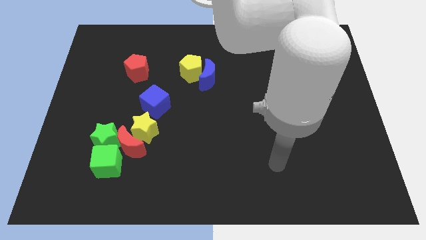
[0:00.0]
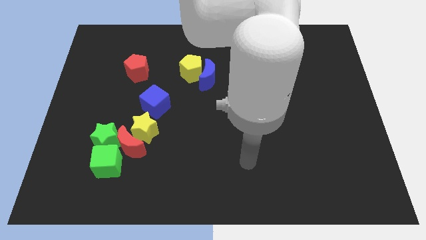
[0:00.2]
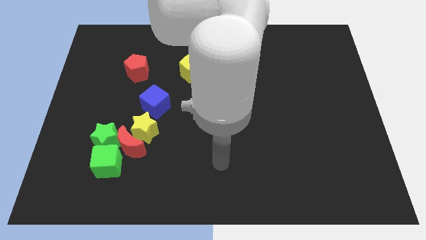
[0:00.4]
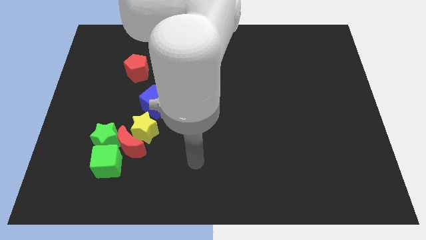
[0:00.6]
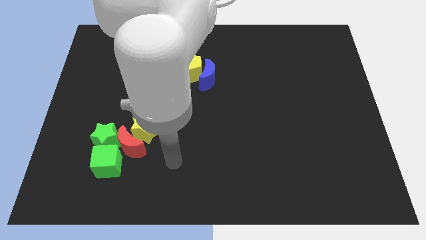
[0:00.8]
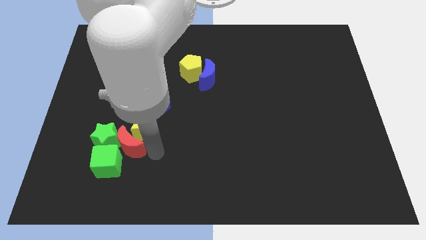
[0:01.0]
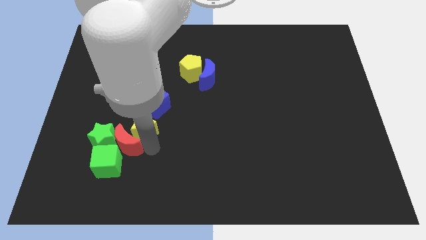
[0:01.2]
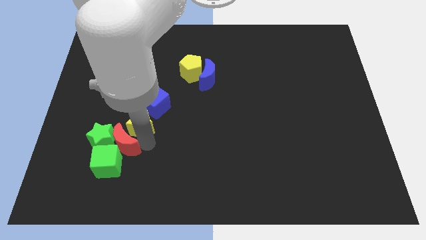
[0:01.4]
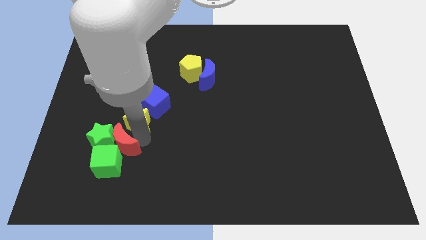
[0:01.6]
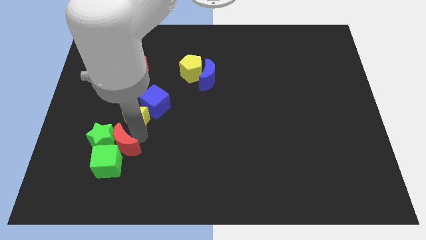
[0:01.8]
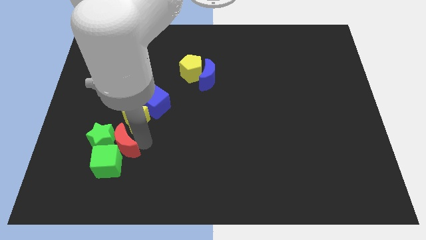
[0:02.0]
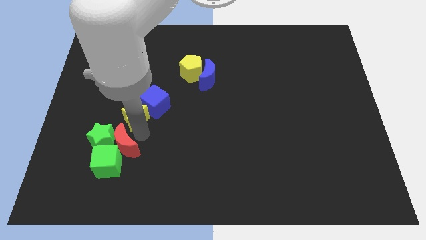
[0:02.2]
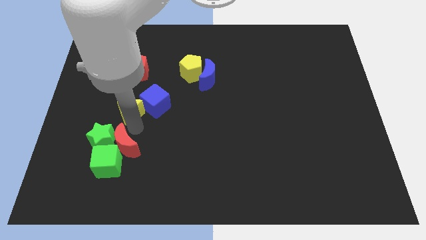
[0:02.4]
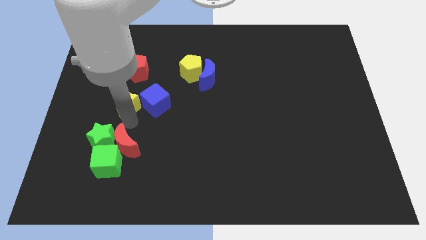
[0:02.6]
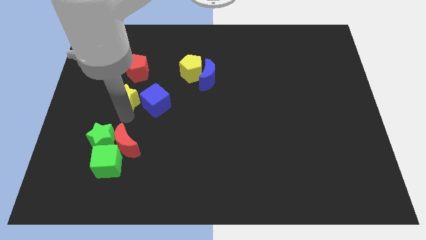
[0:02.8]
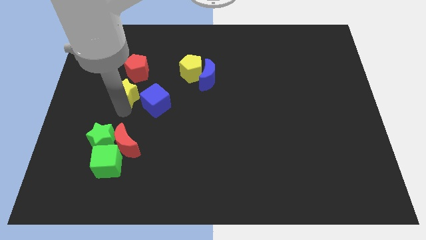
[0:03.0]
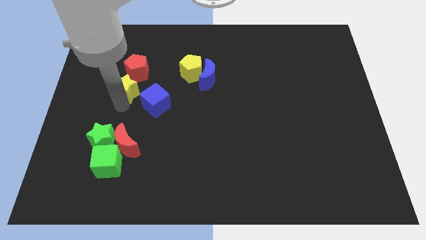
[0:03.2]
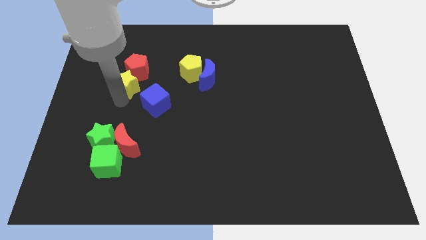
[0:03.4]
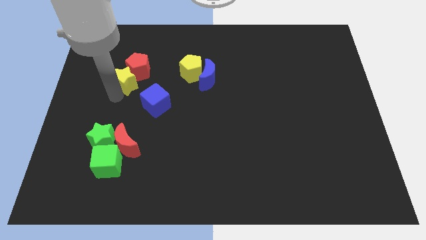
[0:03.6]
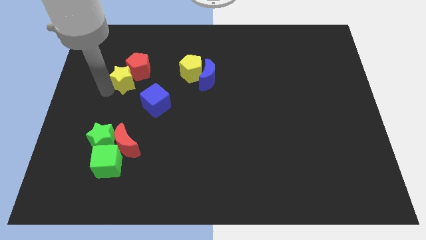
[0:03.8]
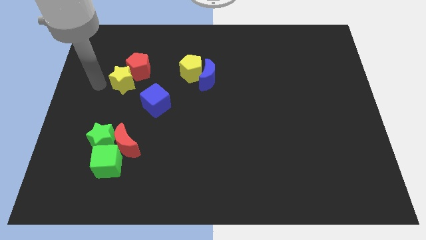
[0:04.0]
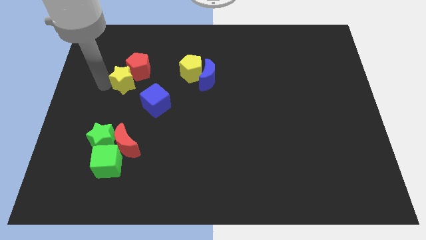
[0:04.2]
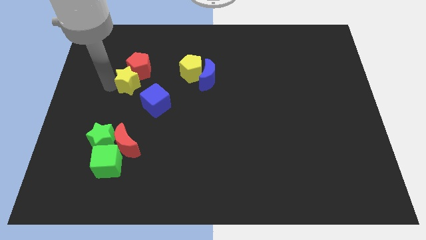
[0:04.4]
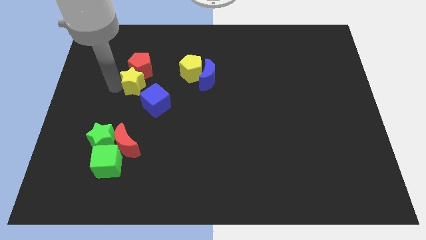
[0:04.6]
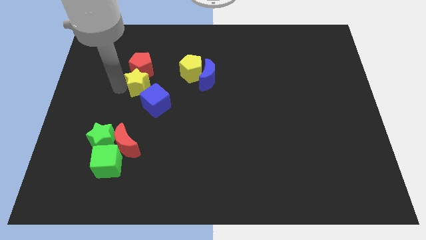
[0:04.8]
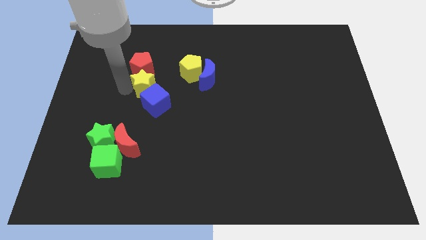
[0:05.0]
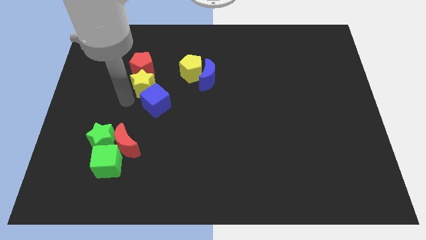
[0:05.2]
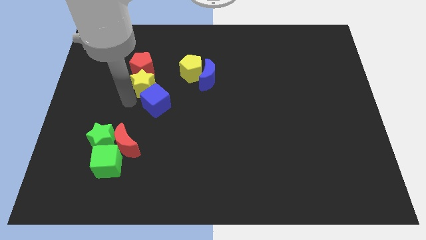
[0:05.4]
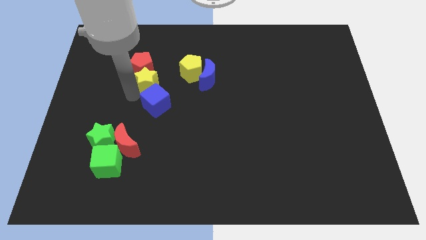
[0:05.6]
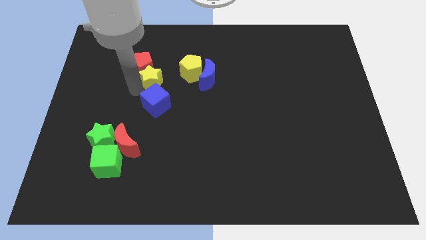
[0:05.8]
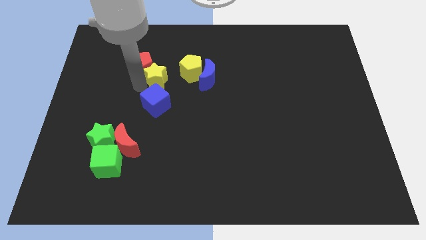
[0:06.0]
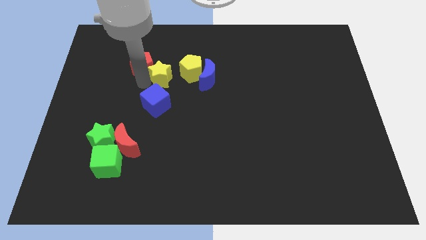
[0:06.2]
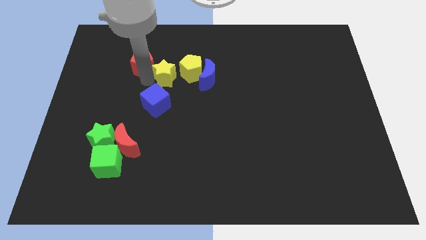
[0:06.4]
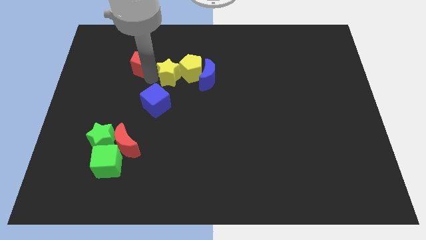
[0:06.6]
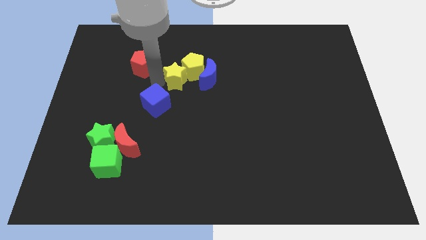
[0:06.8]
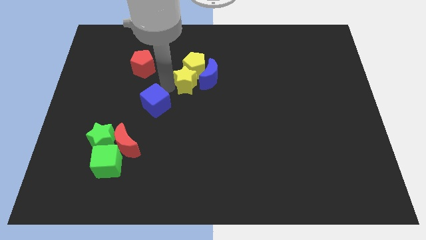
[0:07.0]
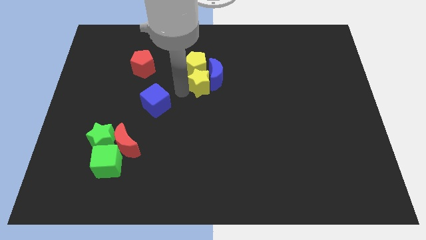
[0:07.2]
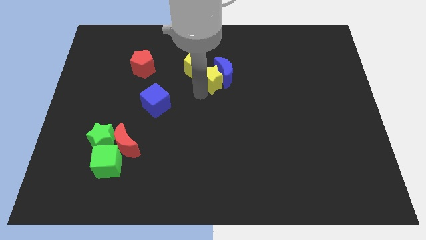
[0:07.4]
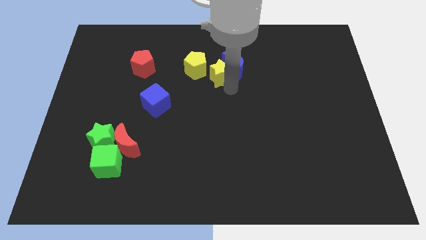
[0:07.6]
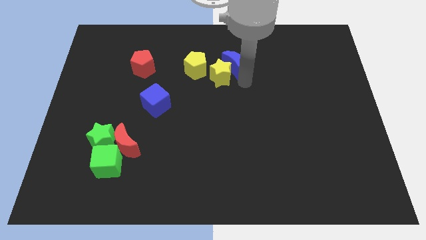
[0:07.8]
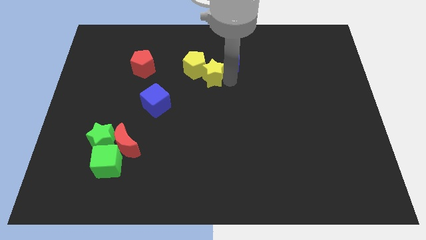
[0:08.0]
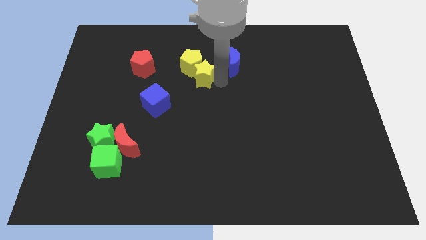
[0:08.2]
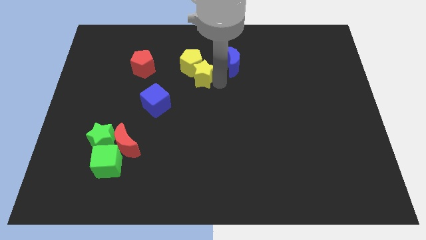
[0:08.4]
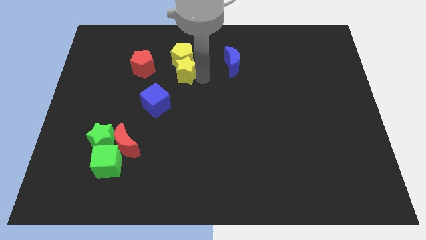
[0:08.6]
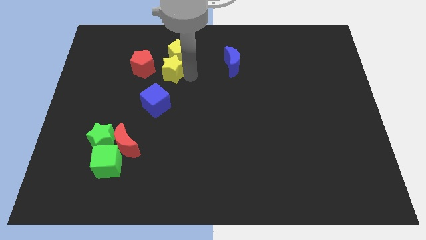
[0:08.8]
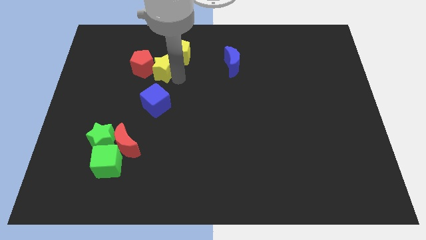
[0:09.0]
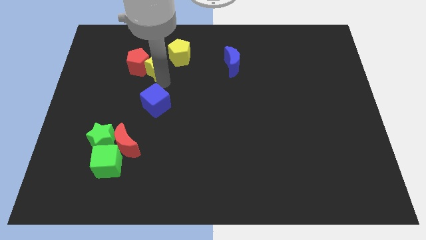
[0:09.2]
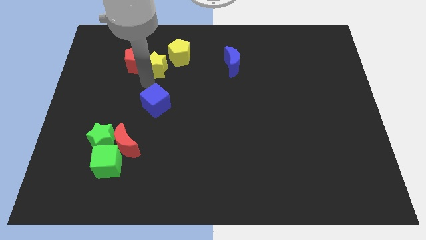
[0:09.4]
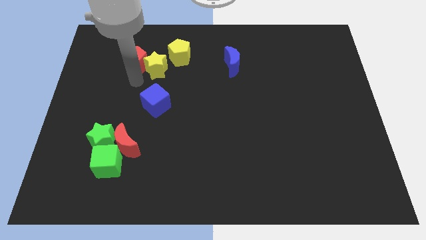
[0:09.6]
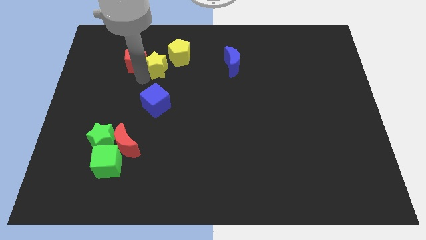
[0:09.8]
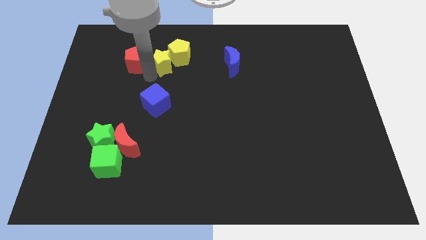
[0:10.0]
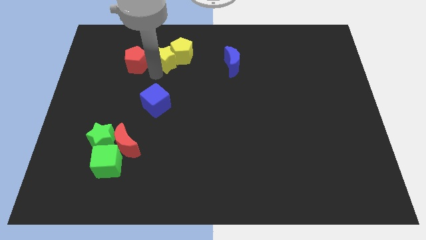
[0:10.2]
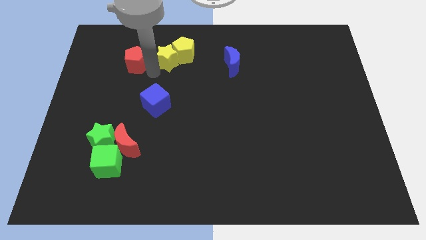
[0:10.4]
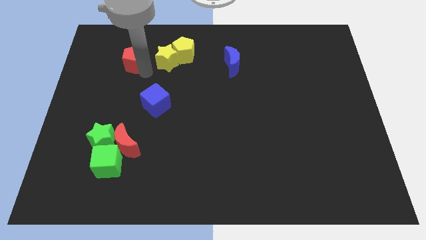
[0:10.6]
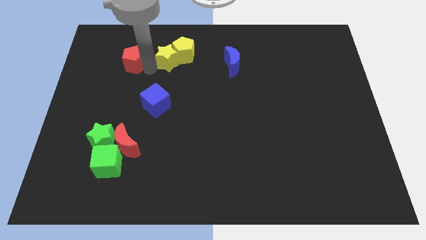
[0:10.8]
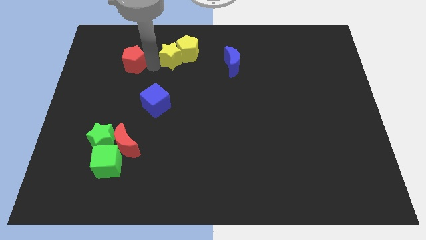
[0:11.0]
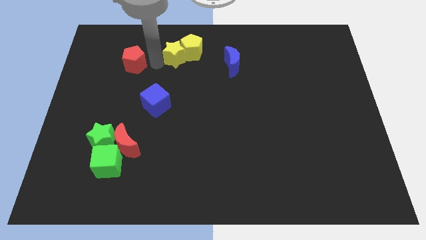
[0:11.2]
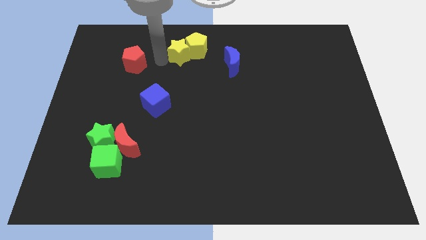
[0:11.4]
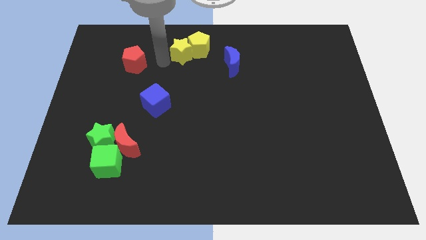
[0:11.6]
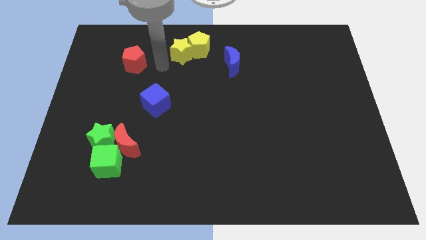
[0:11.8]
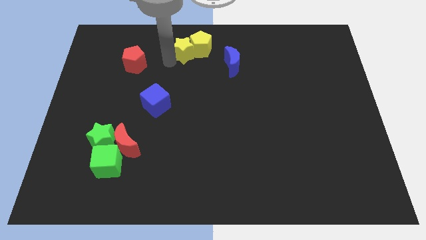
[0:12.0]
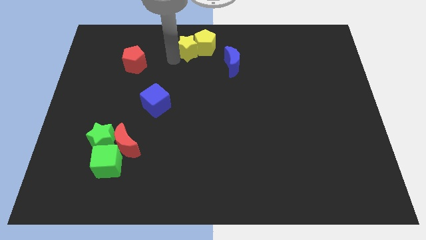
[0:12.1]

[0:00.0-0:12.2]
slide the yellow star to the top side
